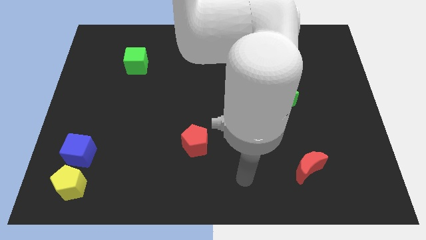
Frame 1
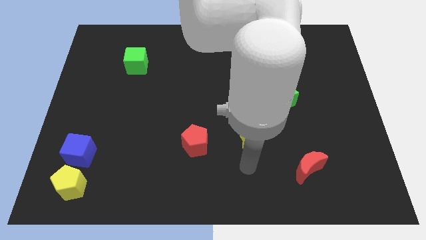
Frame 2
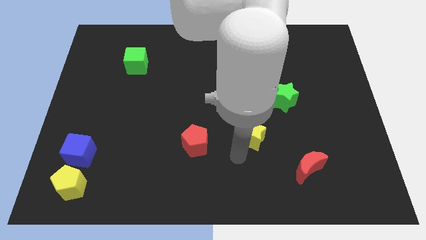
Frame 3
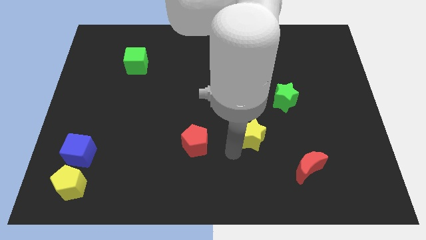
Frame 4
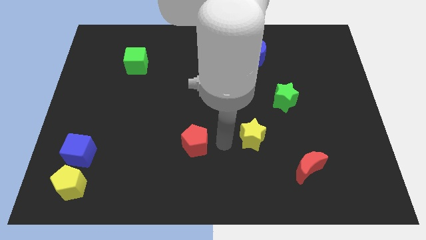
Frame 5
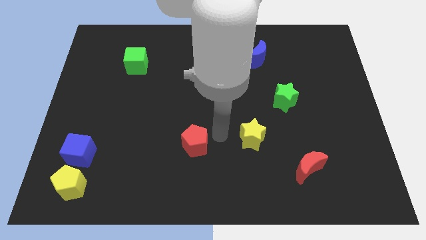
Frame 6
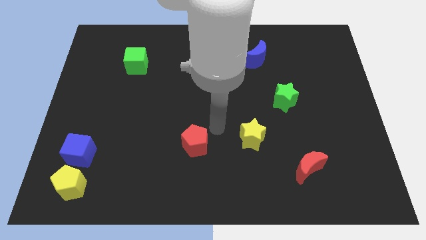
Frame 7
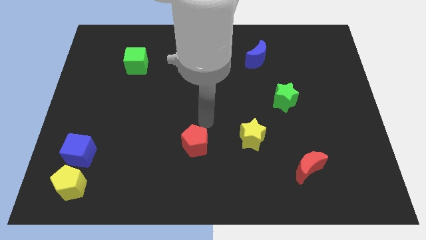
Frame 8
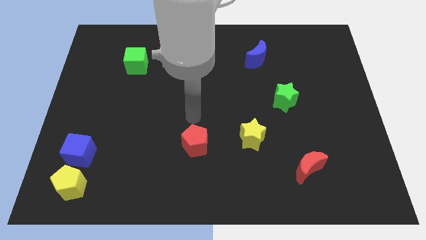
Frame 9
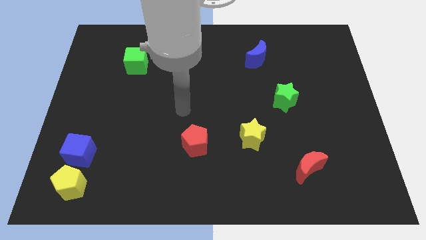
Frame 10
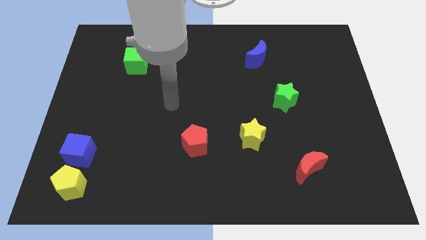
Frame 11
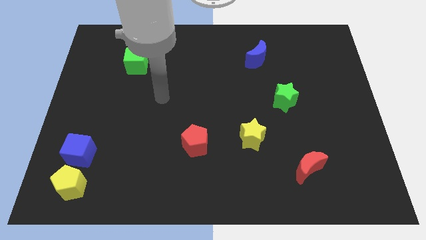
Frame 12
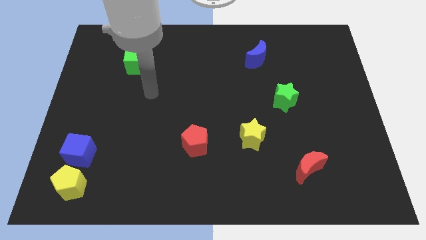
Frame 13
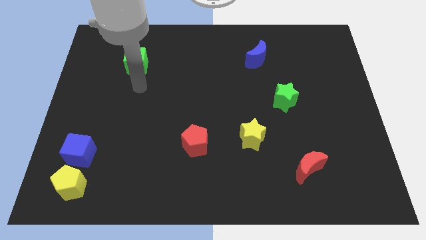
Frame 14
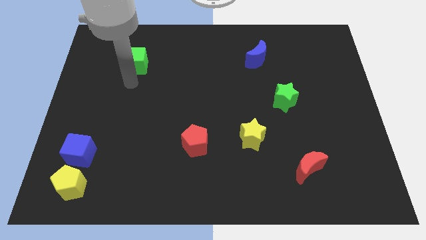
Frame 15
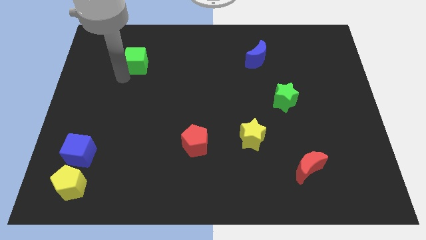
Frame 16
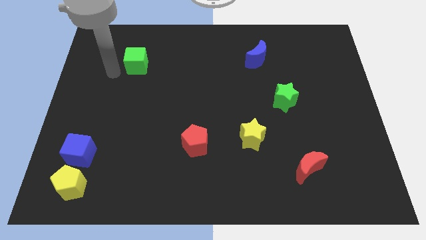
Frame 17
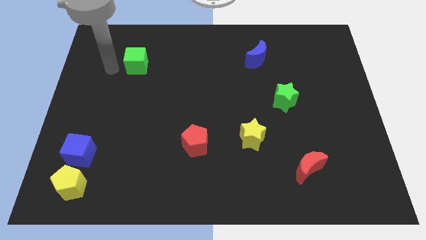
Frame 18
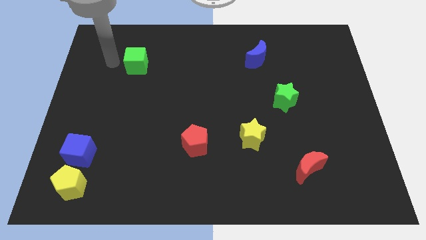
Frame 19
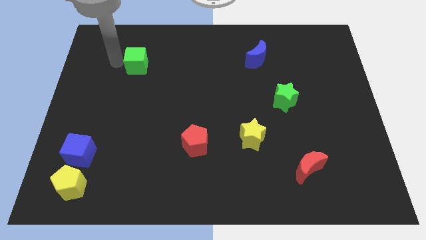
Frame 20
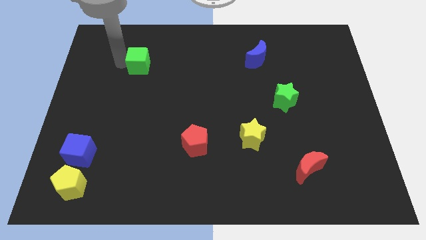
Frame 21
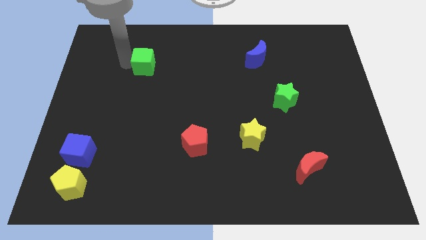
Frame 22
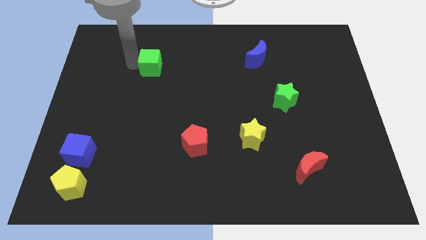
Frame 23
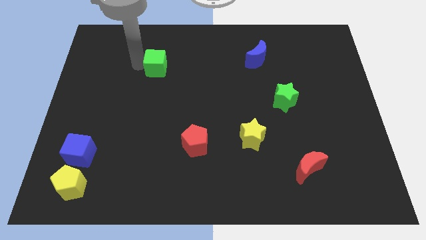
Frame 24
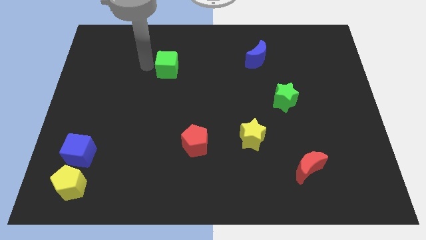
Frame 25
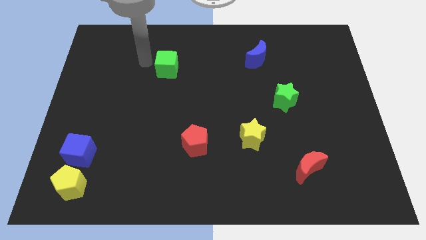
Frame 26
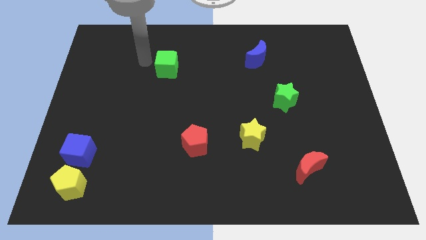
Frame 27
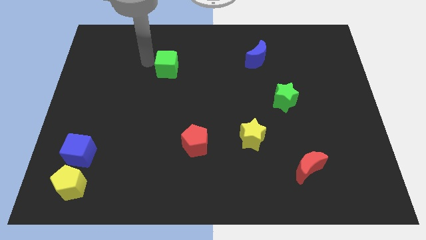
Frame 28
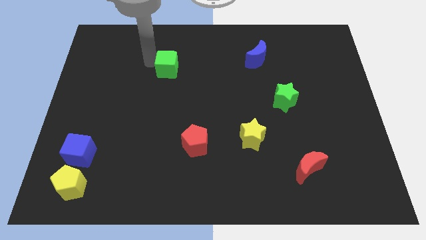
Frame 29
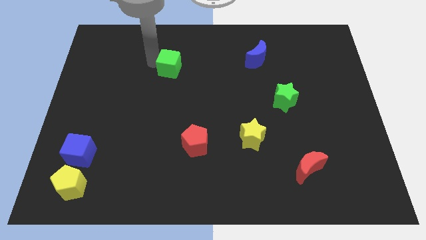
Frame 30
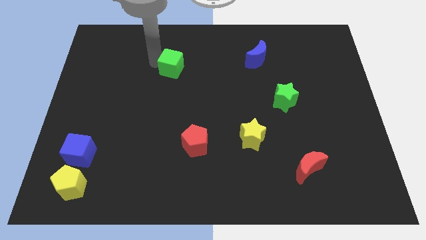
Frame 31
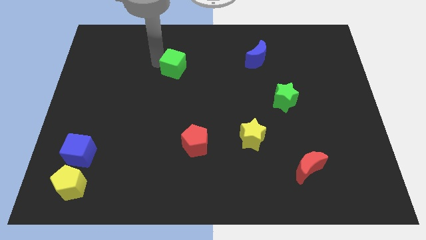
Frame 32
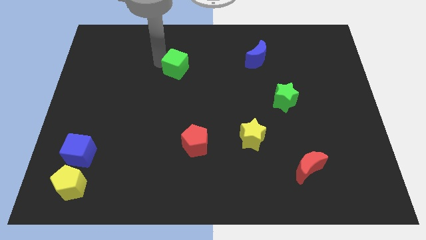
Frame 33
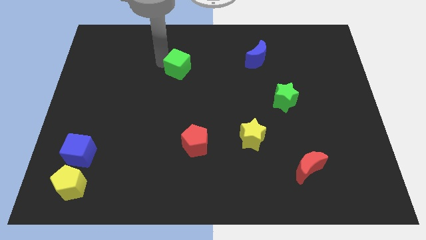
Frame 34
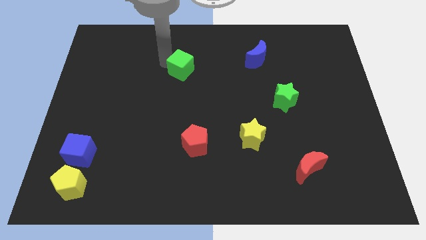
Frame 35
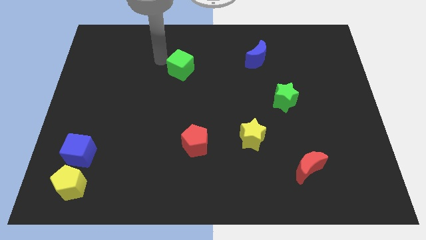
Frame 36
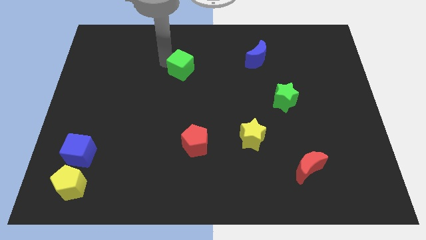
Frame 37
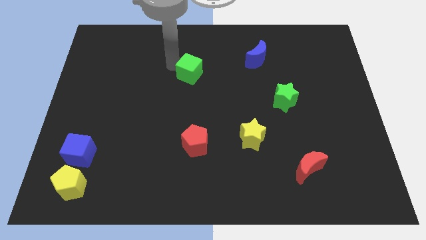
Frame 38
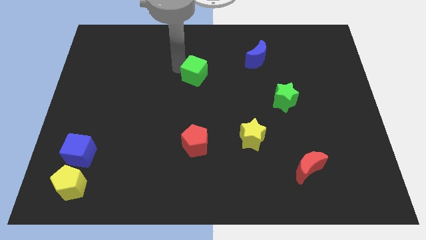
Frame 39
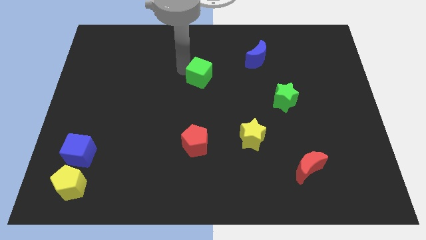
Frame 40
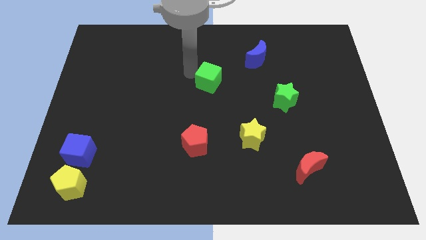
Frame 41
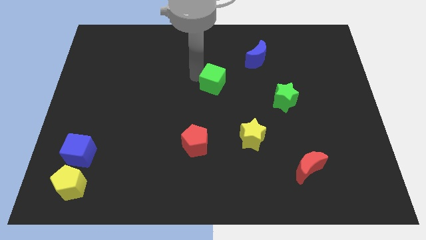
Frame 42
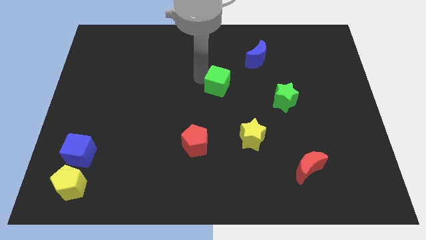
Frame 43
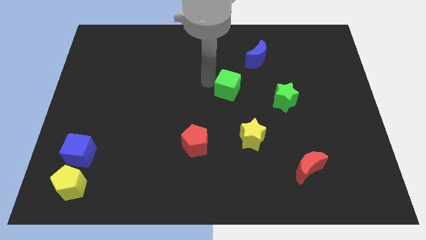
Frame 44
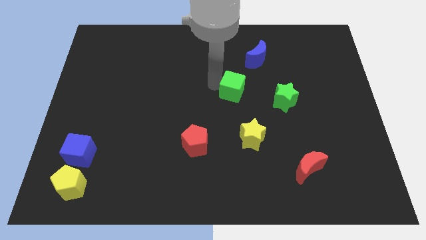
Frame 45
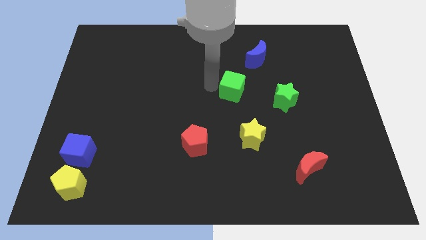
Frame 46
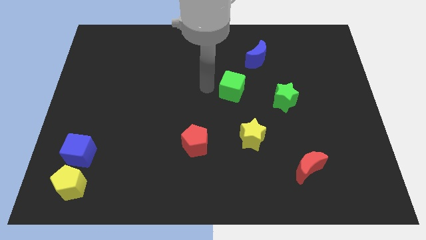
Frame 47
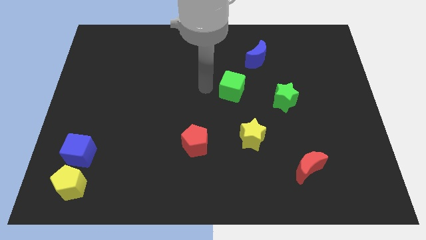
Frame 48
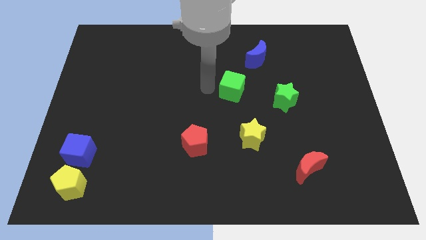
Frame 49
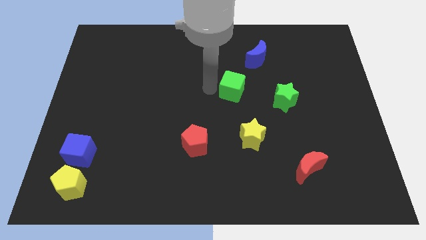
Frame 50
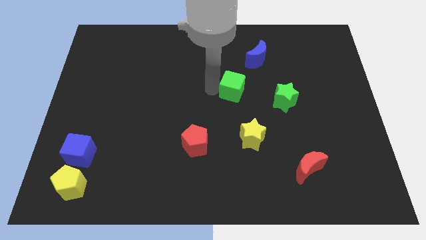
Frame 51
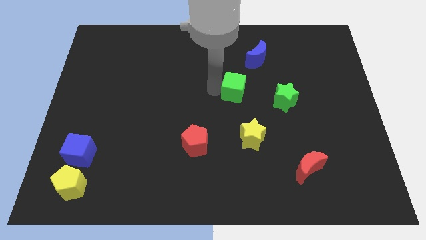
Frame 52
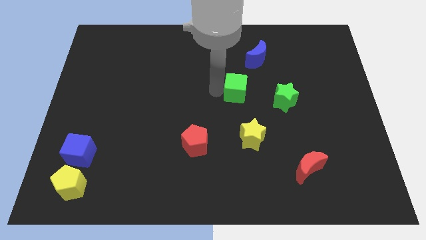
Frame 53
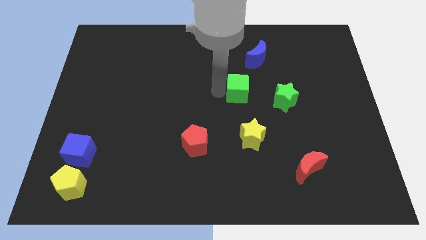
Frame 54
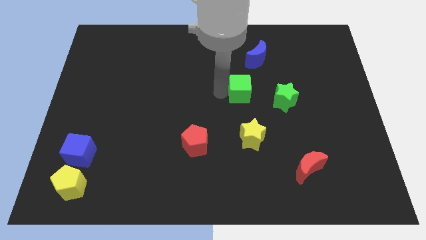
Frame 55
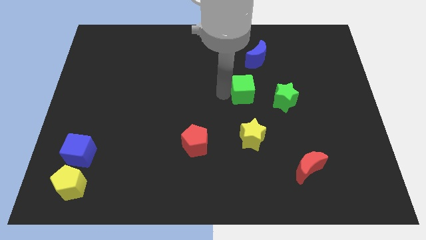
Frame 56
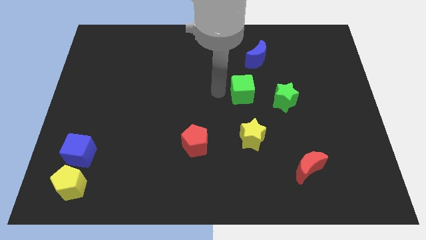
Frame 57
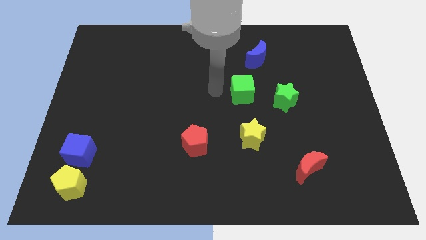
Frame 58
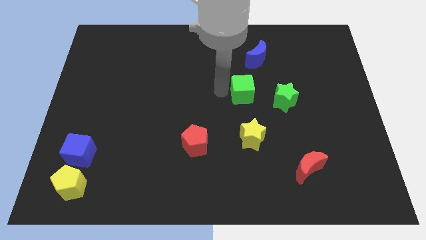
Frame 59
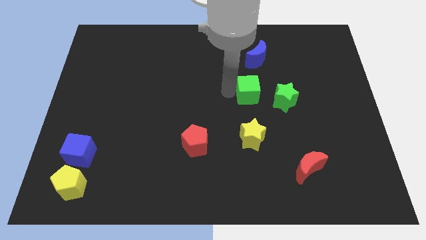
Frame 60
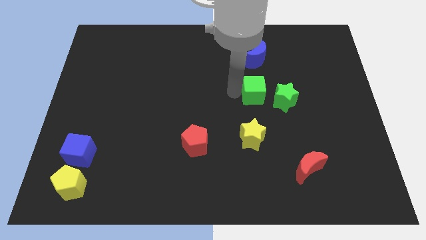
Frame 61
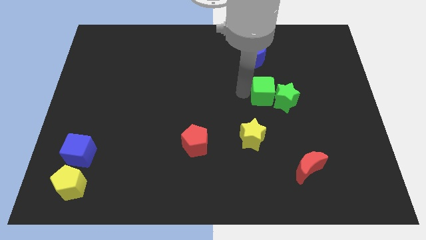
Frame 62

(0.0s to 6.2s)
move the green cube towards the green star
